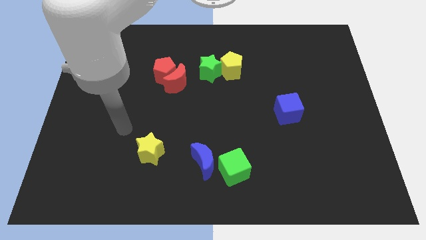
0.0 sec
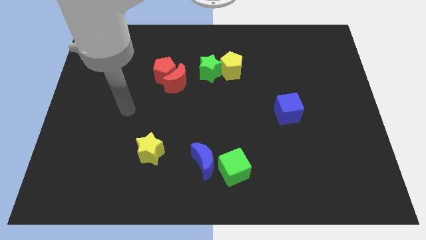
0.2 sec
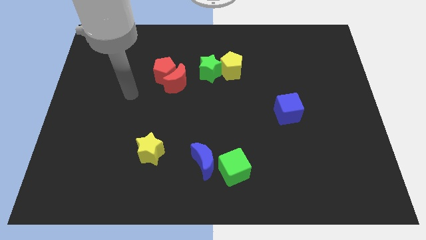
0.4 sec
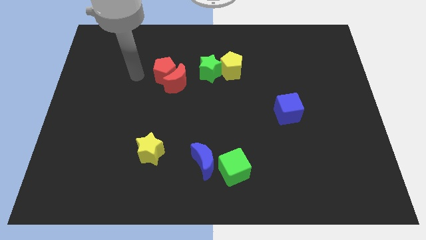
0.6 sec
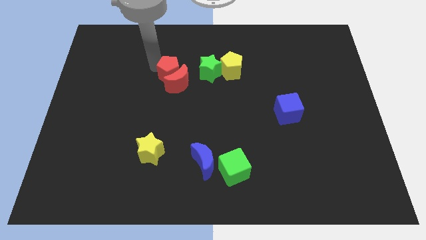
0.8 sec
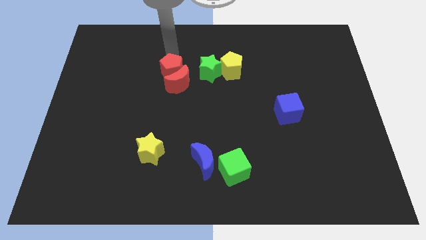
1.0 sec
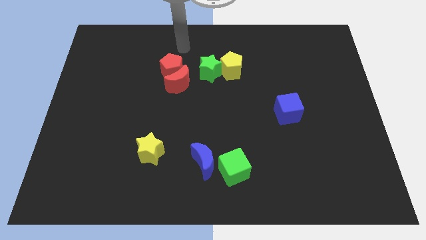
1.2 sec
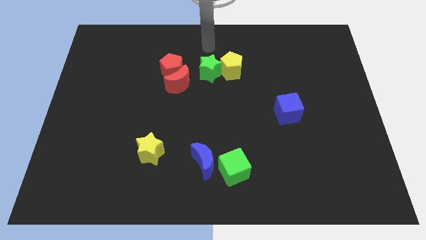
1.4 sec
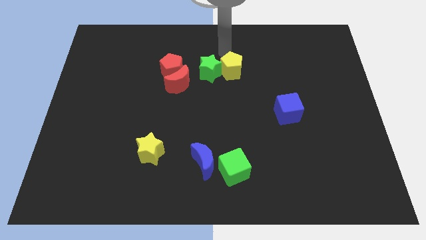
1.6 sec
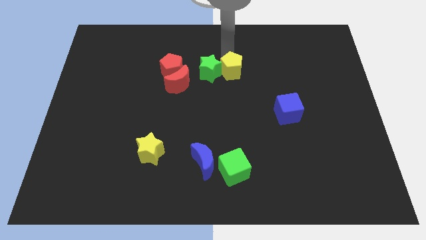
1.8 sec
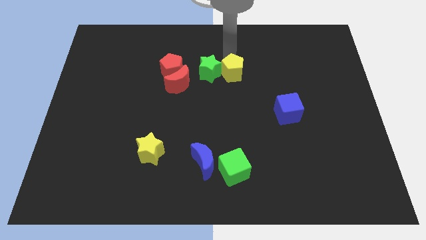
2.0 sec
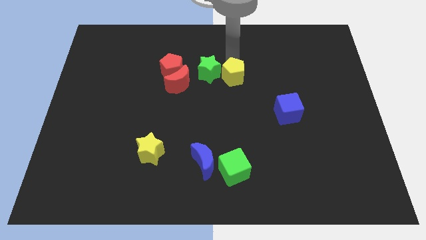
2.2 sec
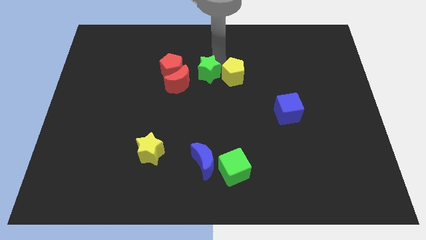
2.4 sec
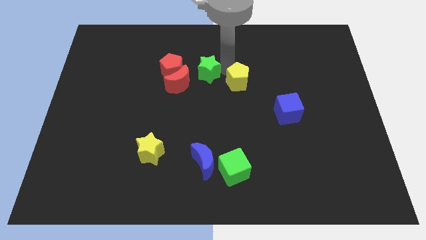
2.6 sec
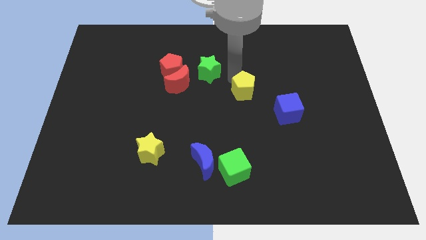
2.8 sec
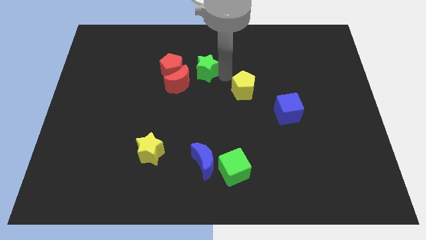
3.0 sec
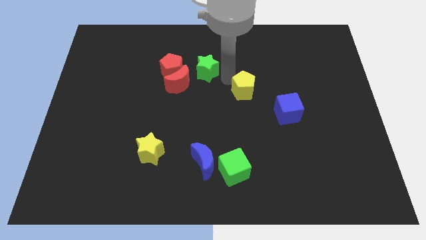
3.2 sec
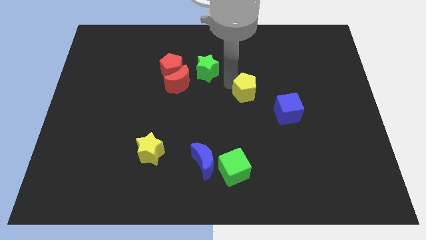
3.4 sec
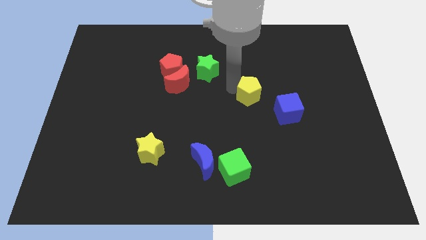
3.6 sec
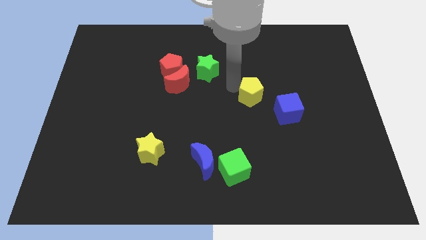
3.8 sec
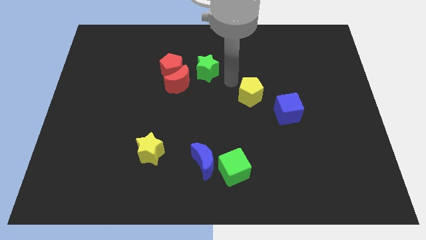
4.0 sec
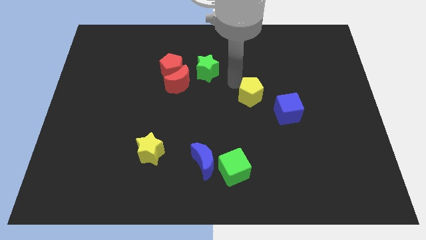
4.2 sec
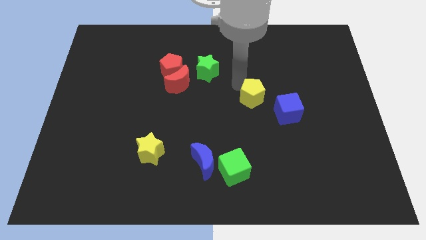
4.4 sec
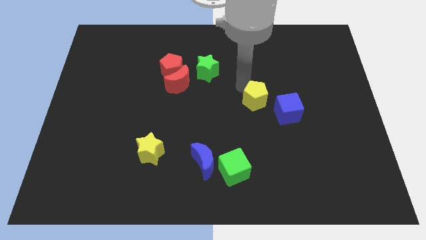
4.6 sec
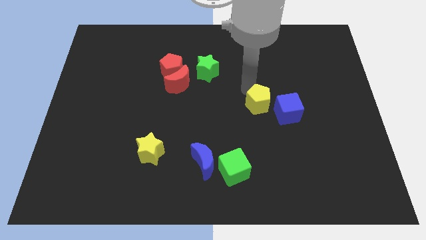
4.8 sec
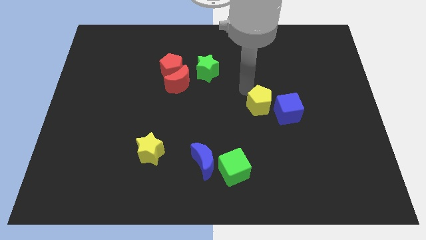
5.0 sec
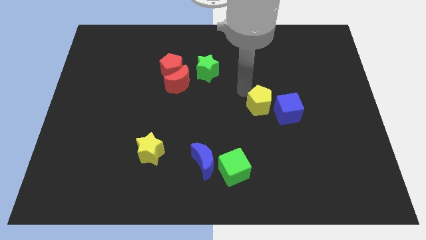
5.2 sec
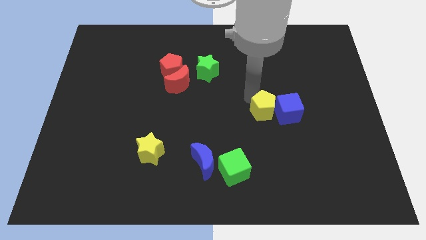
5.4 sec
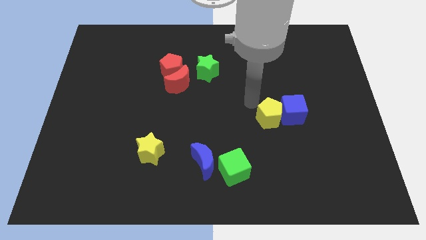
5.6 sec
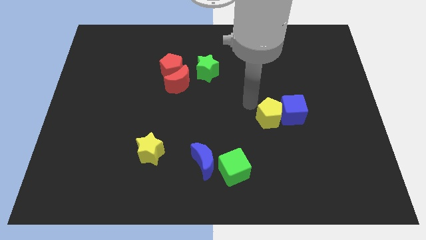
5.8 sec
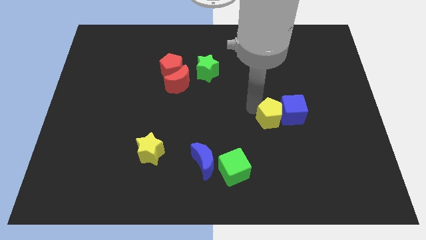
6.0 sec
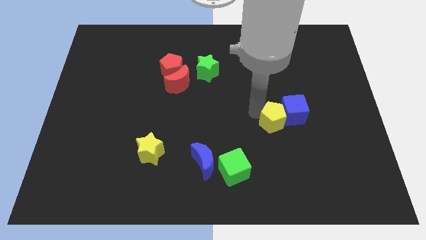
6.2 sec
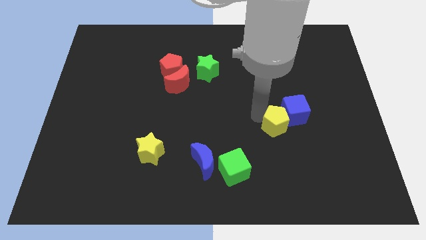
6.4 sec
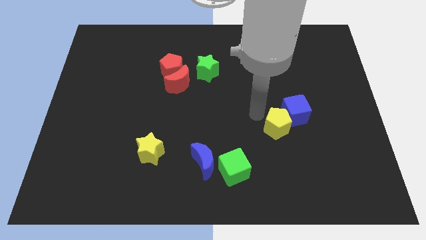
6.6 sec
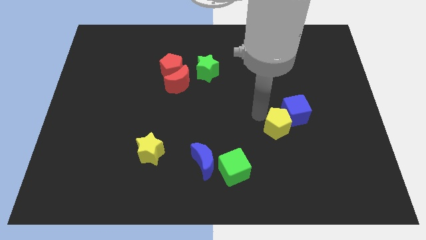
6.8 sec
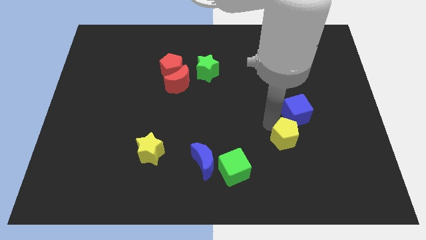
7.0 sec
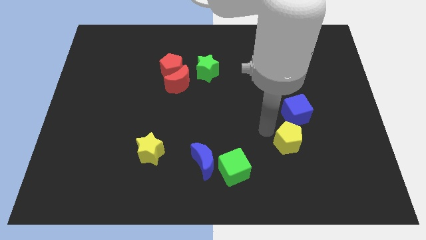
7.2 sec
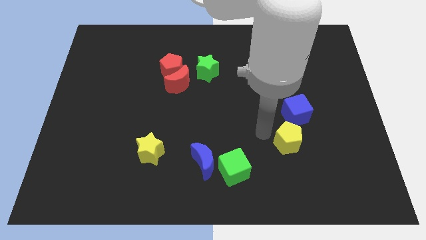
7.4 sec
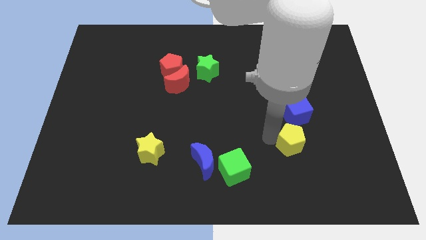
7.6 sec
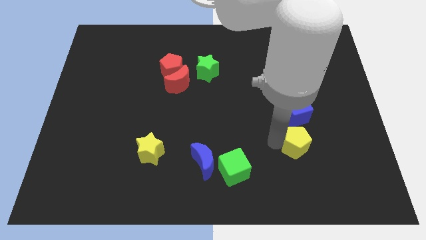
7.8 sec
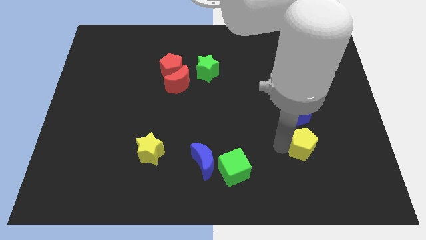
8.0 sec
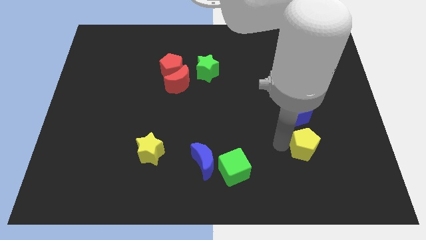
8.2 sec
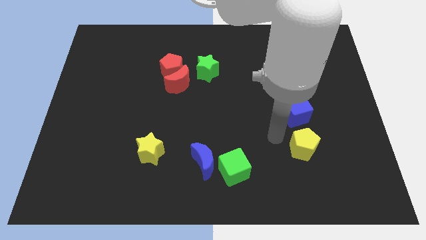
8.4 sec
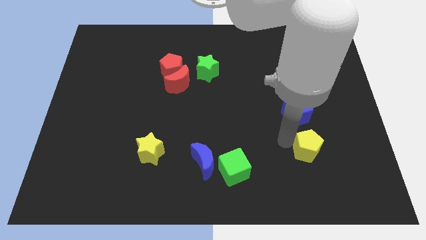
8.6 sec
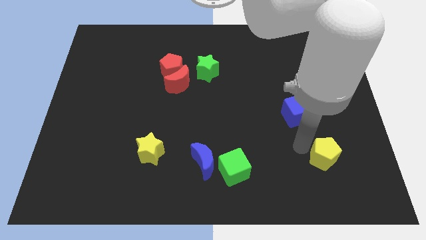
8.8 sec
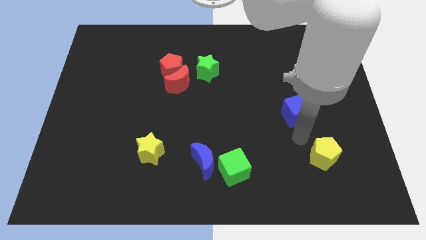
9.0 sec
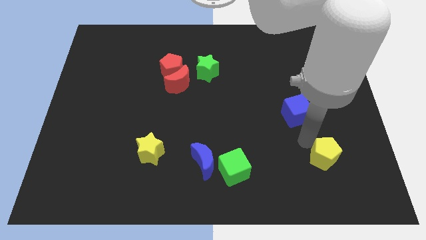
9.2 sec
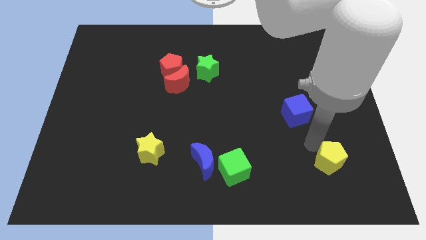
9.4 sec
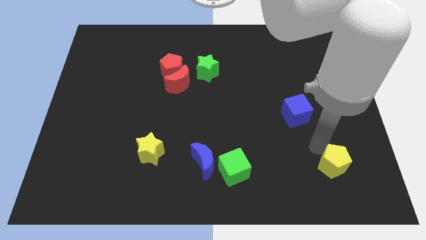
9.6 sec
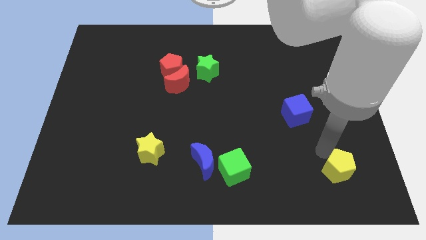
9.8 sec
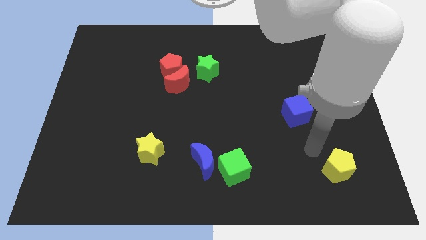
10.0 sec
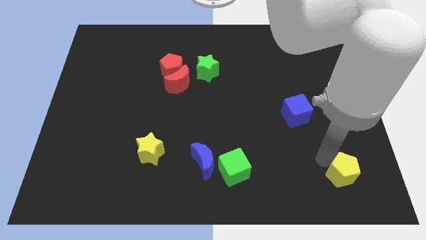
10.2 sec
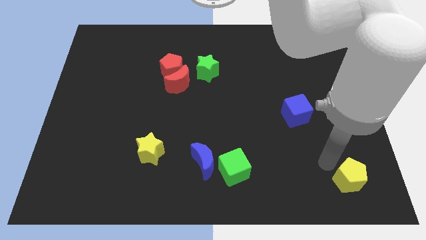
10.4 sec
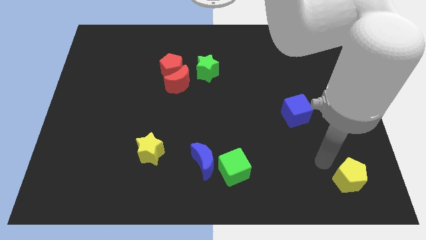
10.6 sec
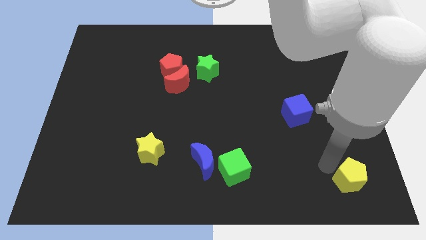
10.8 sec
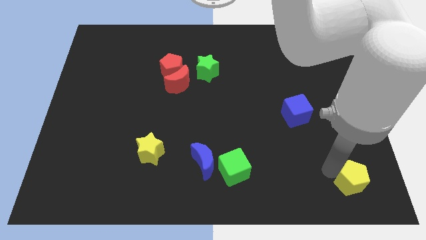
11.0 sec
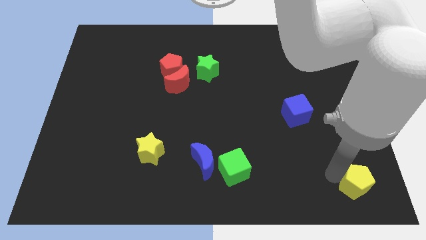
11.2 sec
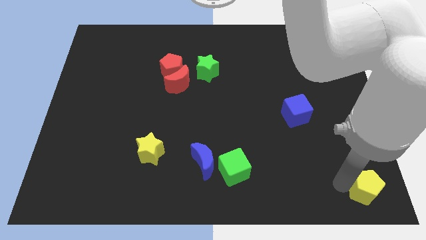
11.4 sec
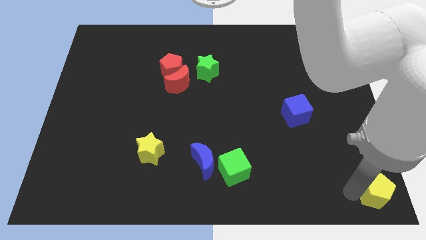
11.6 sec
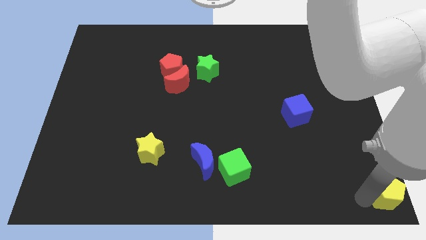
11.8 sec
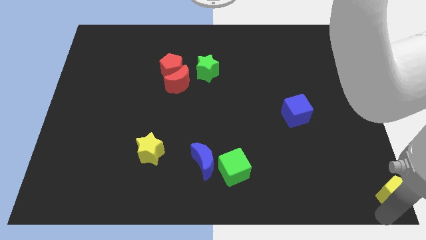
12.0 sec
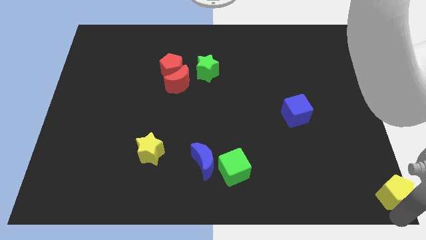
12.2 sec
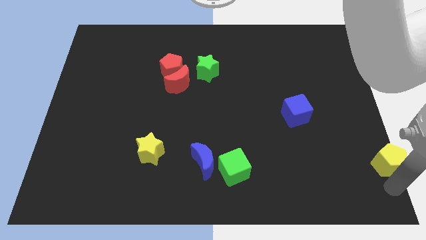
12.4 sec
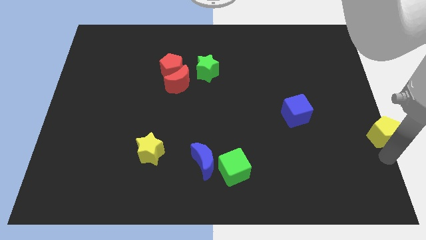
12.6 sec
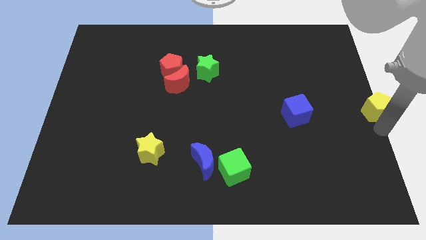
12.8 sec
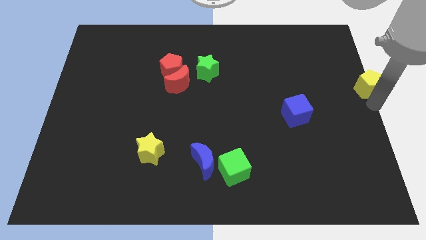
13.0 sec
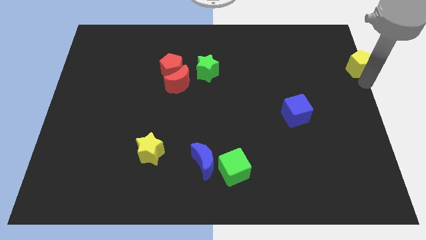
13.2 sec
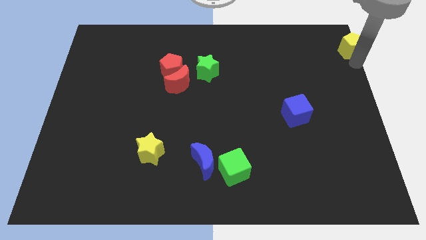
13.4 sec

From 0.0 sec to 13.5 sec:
slide the yellow pentagon to the top right of the board
